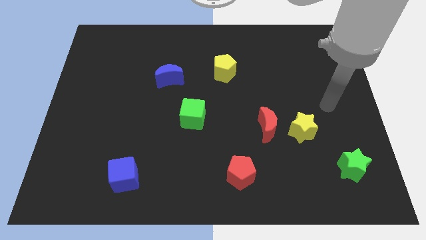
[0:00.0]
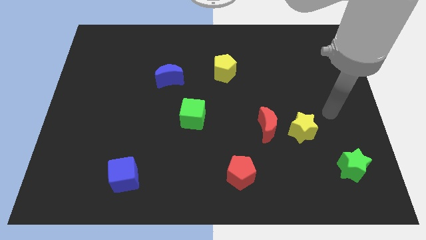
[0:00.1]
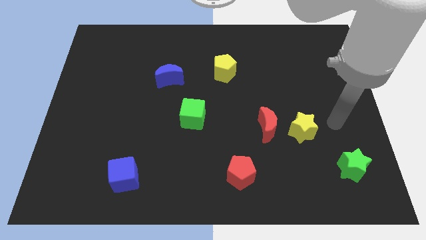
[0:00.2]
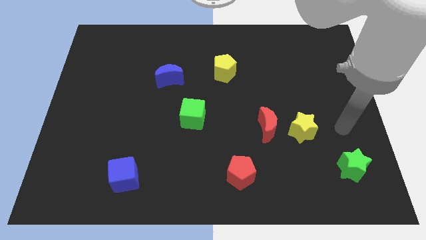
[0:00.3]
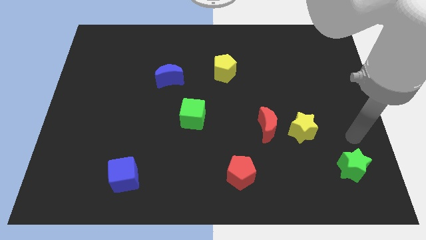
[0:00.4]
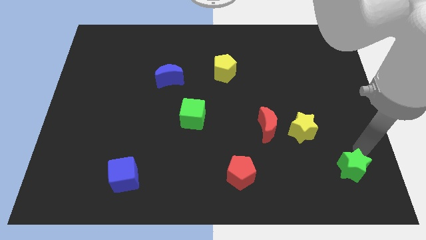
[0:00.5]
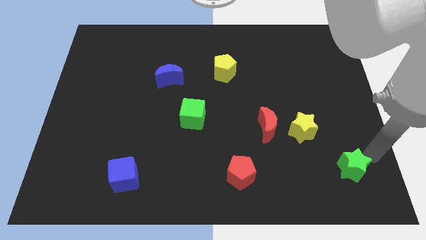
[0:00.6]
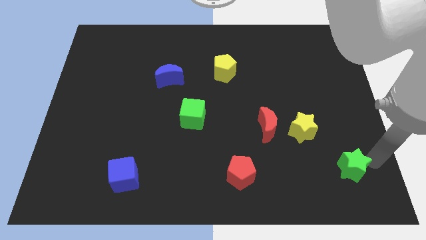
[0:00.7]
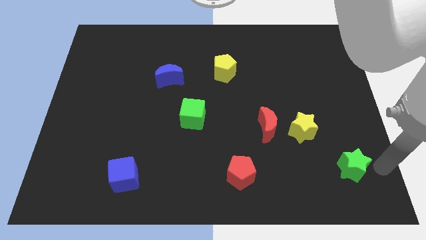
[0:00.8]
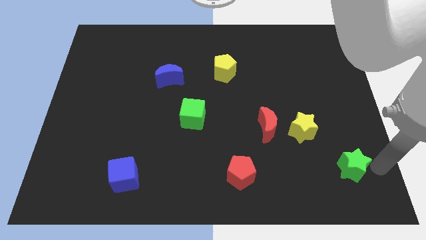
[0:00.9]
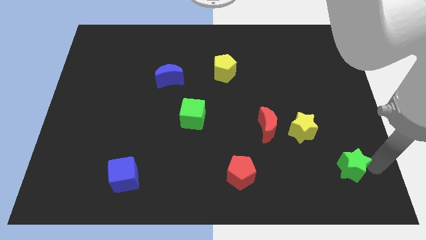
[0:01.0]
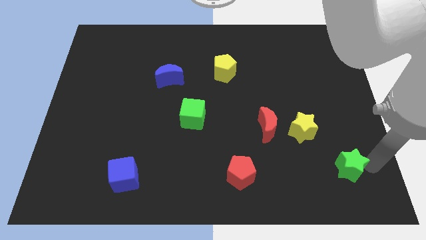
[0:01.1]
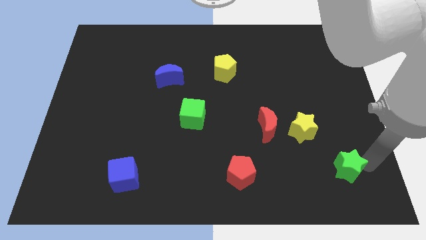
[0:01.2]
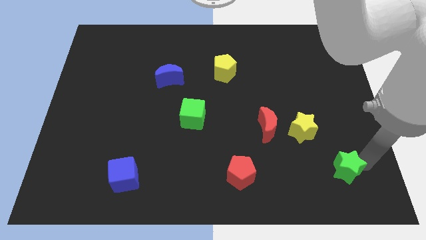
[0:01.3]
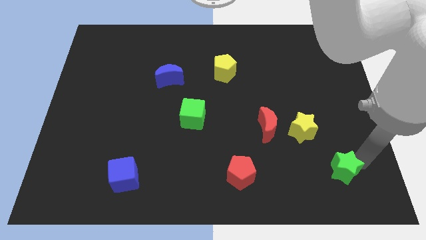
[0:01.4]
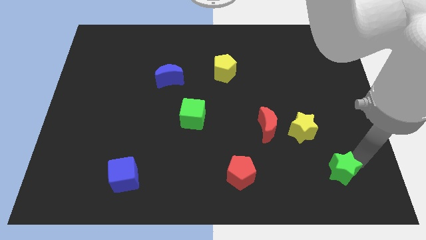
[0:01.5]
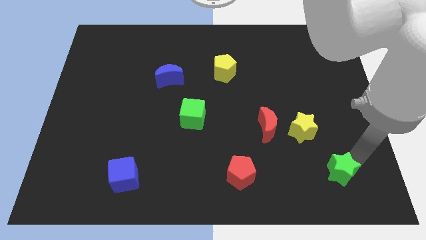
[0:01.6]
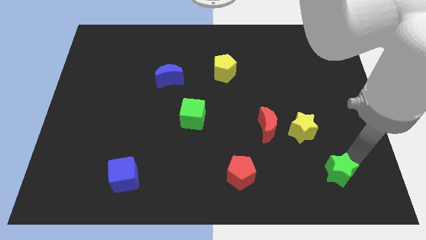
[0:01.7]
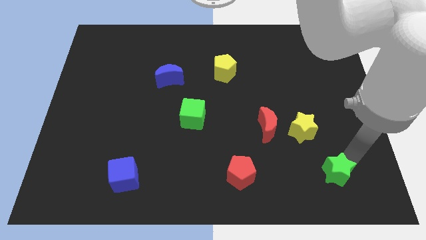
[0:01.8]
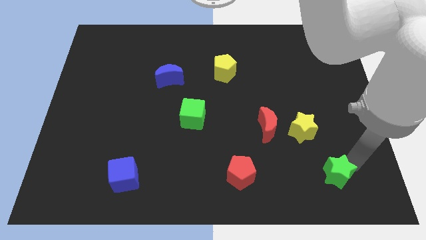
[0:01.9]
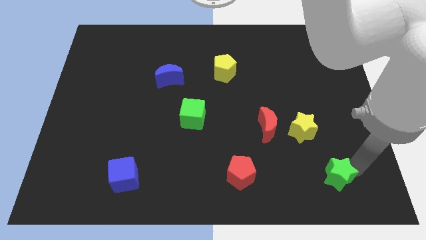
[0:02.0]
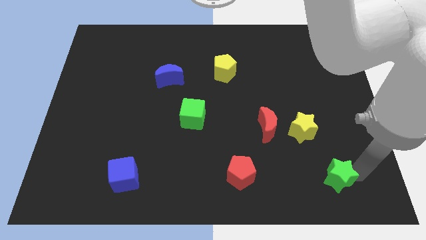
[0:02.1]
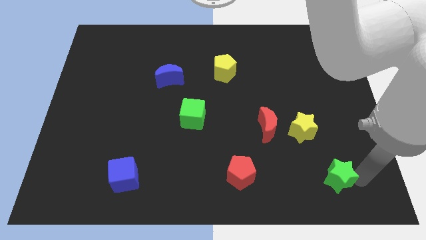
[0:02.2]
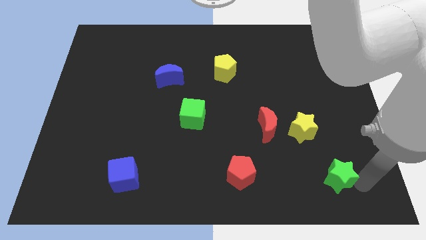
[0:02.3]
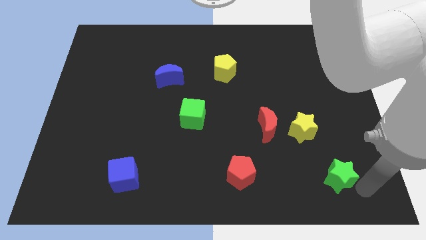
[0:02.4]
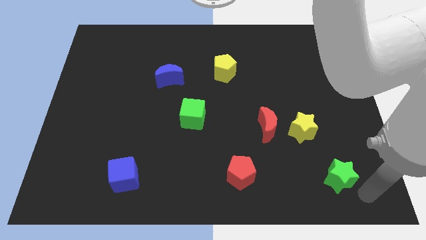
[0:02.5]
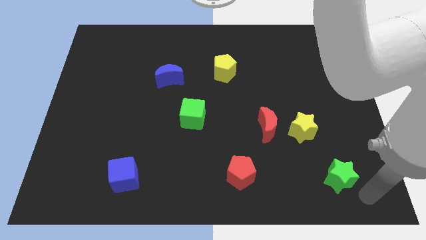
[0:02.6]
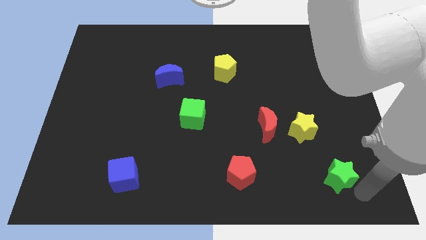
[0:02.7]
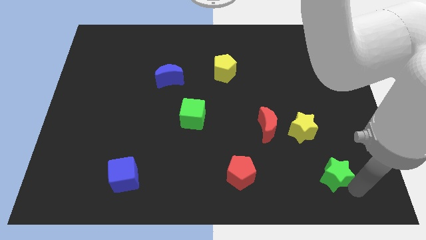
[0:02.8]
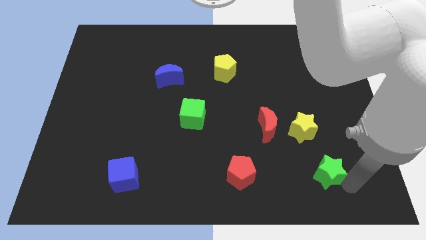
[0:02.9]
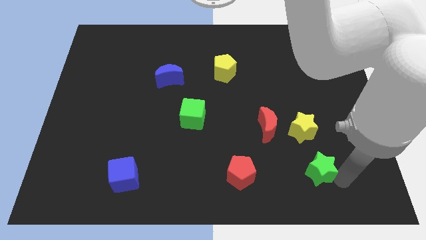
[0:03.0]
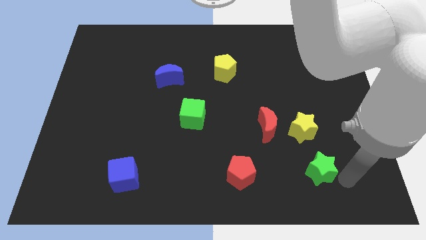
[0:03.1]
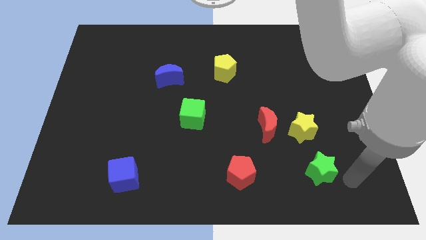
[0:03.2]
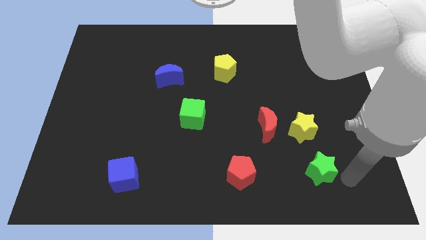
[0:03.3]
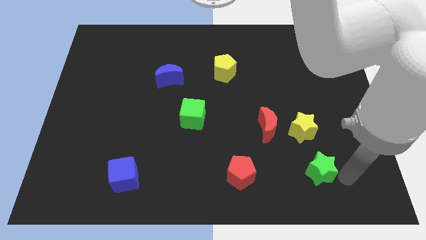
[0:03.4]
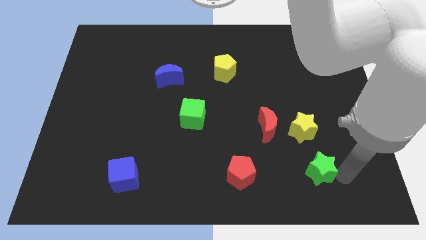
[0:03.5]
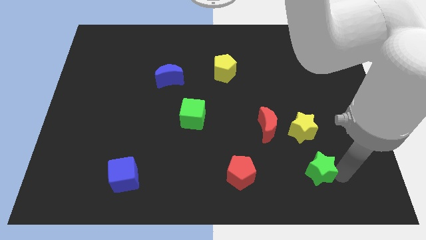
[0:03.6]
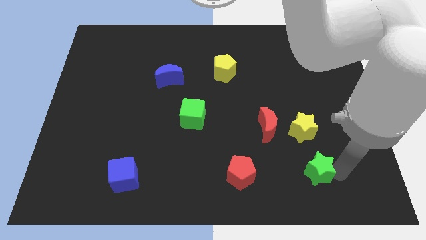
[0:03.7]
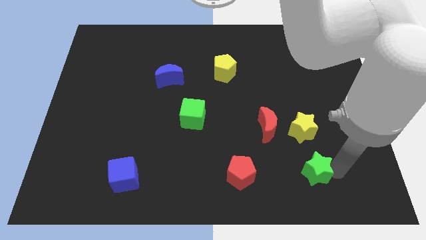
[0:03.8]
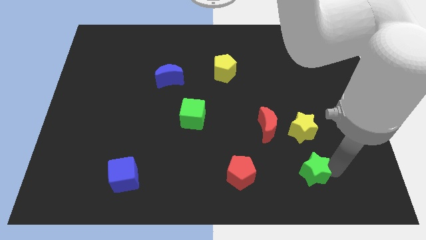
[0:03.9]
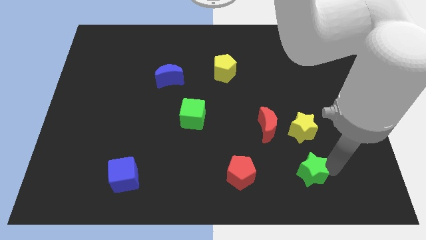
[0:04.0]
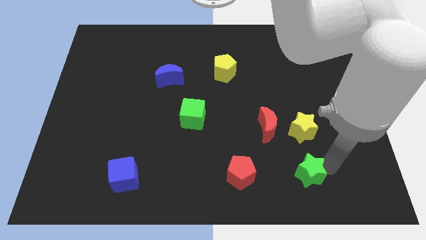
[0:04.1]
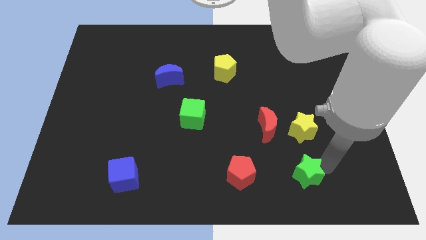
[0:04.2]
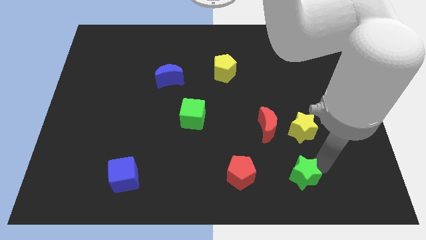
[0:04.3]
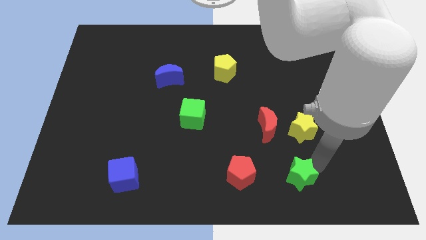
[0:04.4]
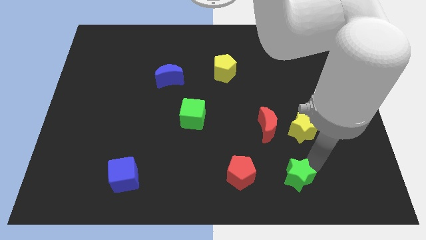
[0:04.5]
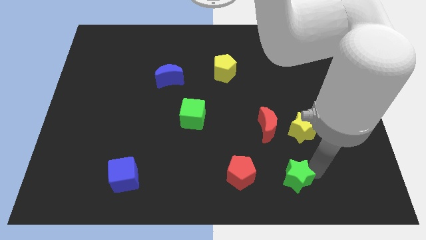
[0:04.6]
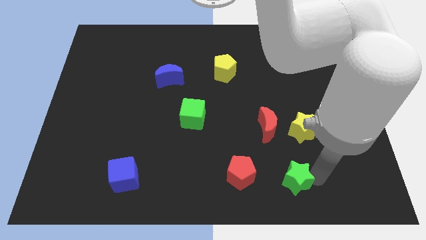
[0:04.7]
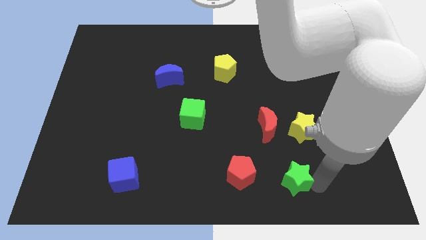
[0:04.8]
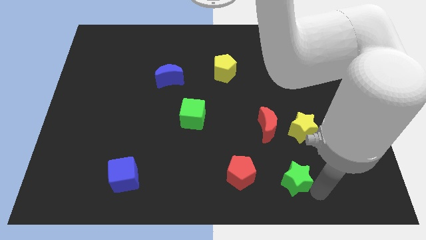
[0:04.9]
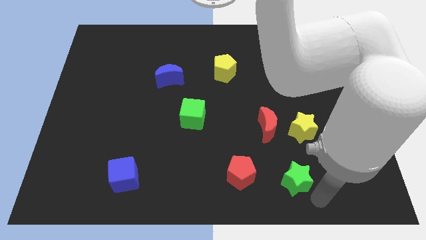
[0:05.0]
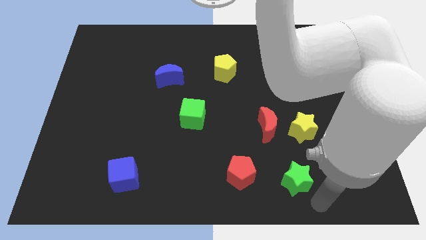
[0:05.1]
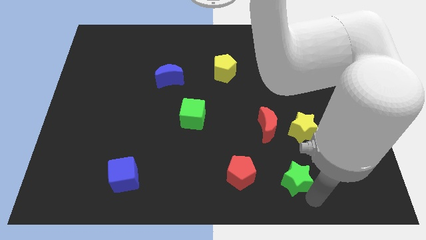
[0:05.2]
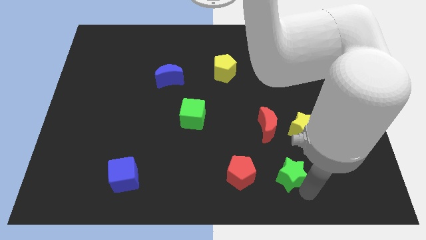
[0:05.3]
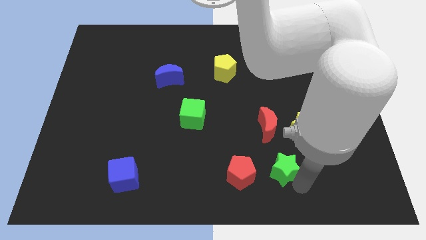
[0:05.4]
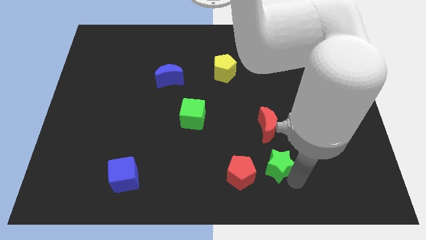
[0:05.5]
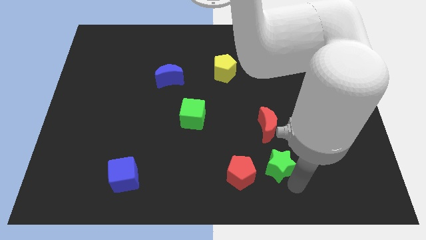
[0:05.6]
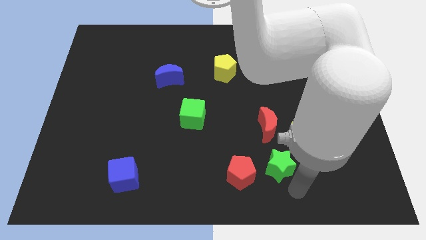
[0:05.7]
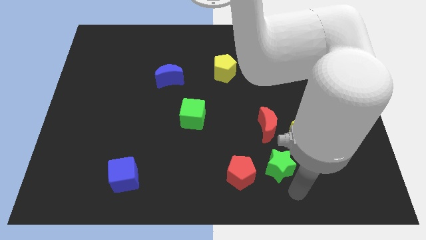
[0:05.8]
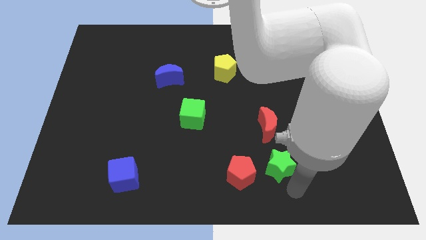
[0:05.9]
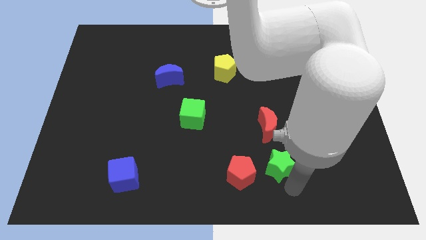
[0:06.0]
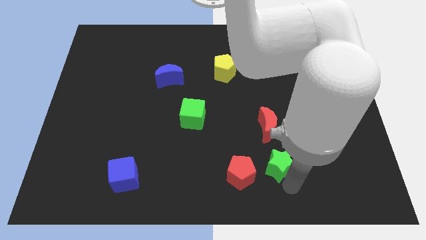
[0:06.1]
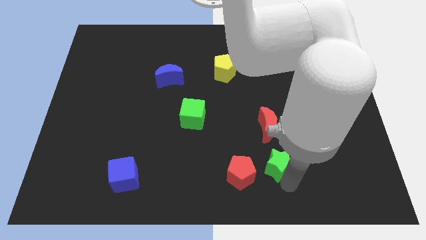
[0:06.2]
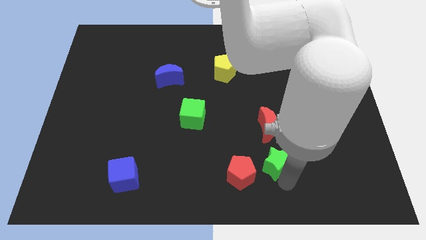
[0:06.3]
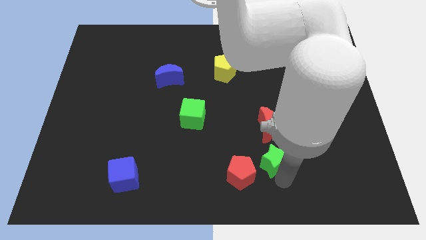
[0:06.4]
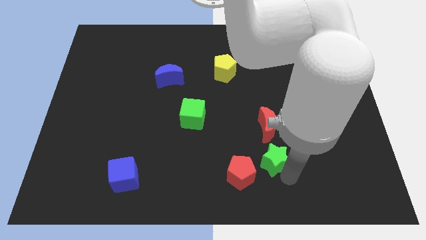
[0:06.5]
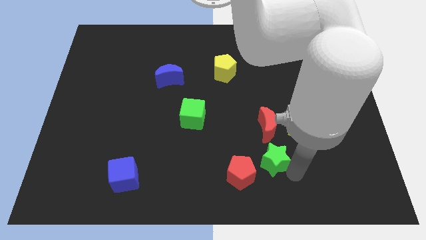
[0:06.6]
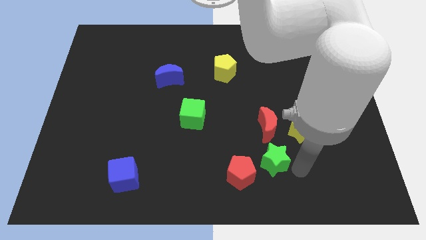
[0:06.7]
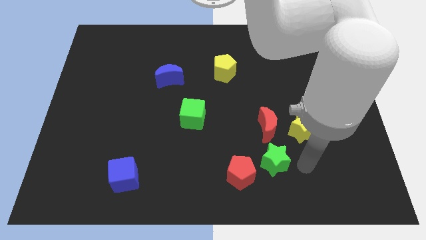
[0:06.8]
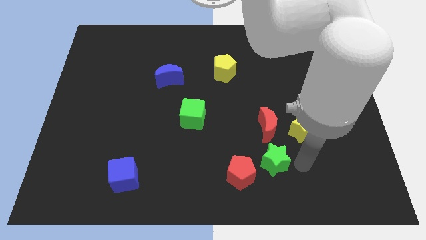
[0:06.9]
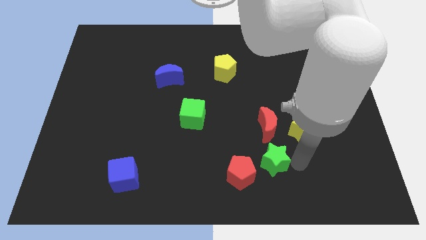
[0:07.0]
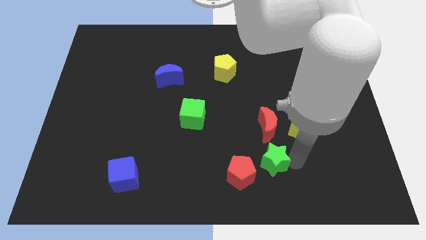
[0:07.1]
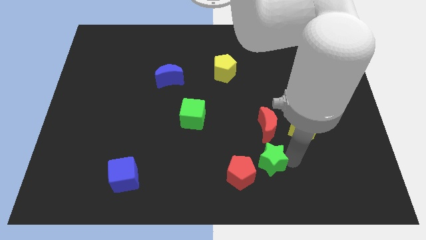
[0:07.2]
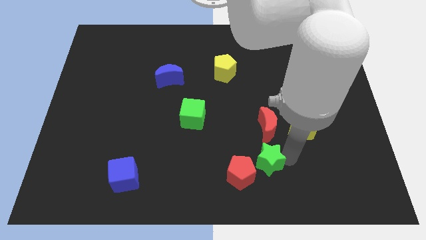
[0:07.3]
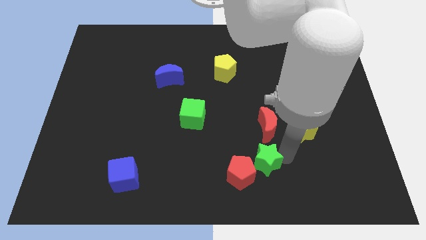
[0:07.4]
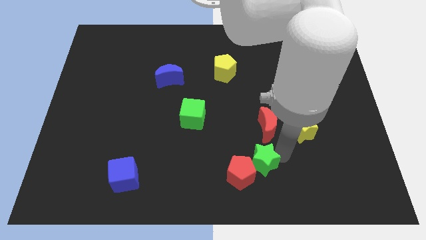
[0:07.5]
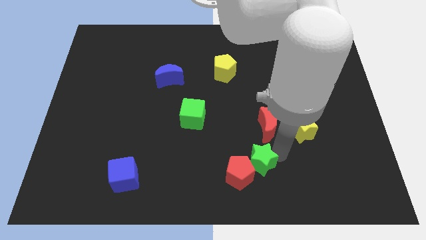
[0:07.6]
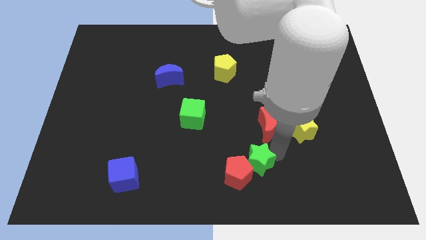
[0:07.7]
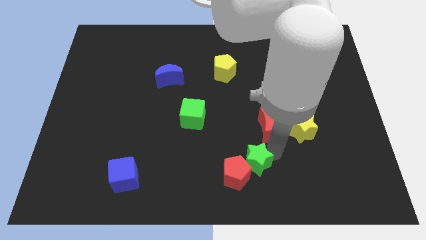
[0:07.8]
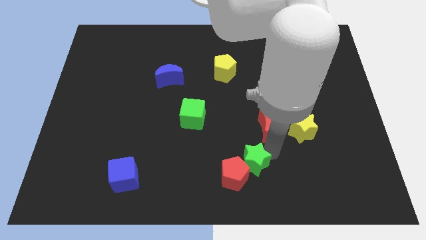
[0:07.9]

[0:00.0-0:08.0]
push the green star to the left
